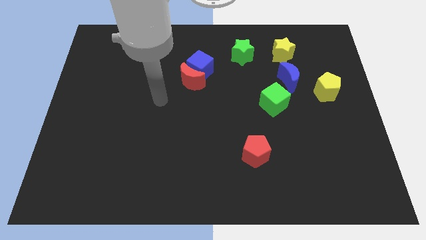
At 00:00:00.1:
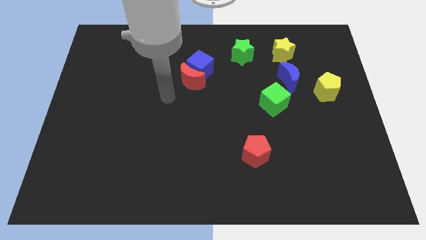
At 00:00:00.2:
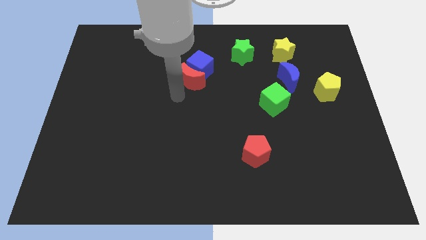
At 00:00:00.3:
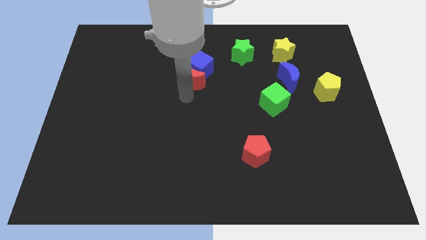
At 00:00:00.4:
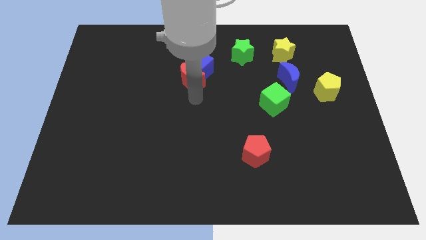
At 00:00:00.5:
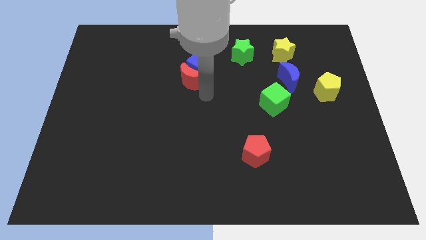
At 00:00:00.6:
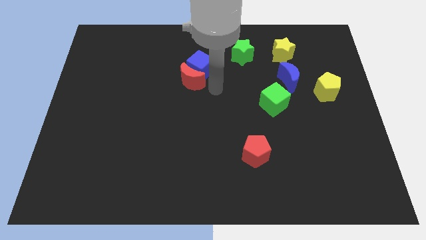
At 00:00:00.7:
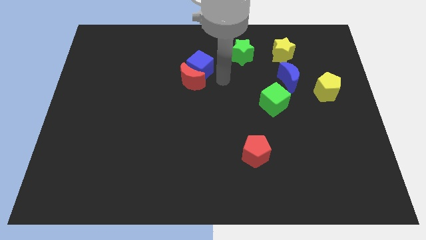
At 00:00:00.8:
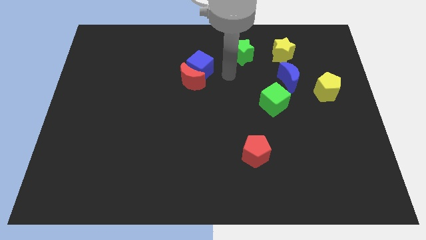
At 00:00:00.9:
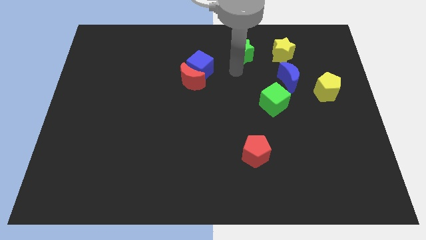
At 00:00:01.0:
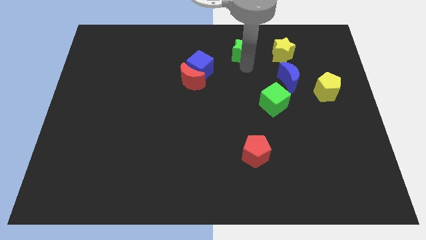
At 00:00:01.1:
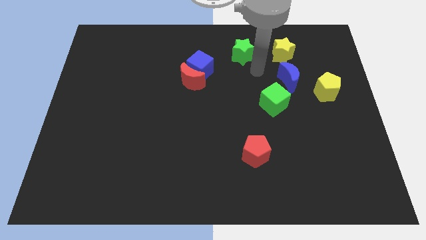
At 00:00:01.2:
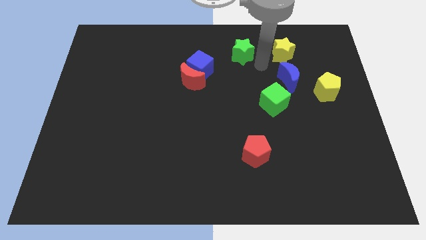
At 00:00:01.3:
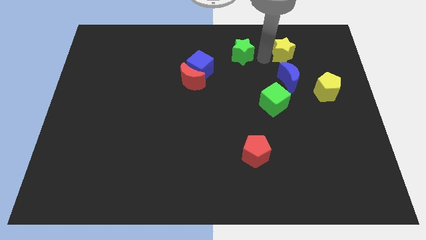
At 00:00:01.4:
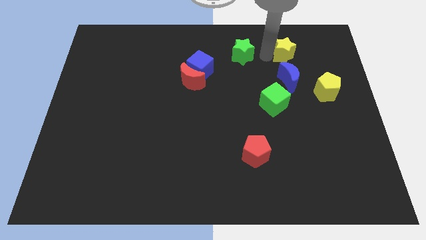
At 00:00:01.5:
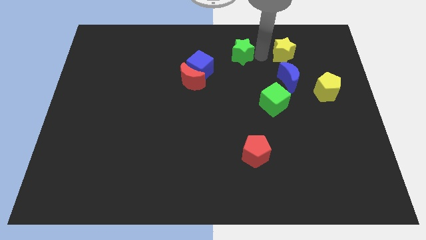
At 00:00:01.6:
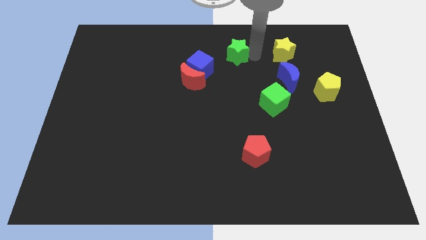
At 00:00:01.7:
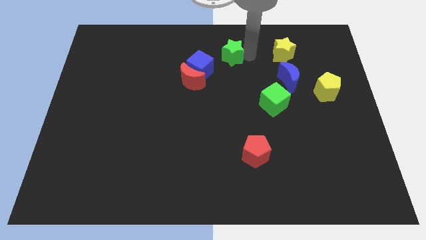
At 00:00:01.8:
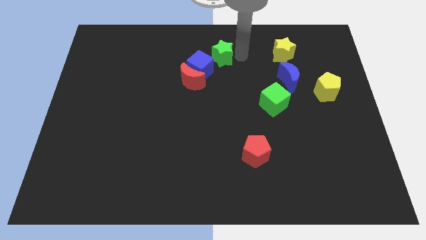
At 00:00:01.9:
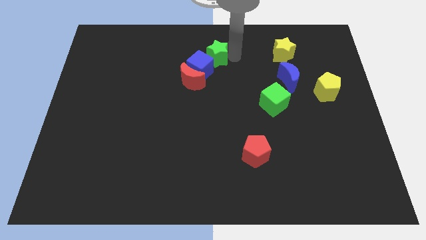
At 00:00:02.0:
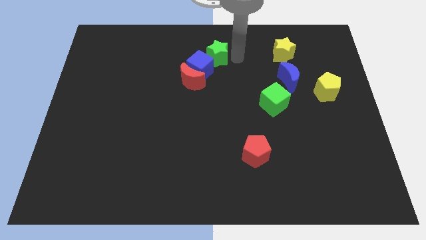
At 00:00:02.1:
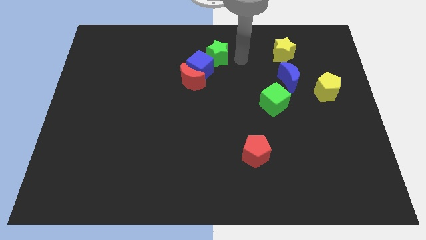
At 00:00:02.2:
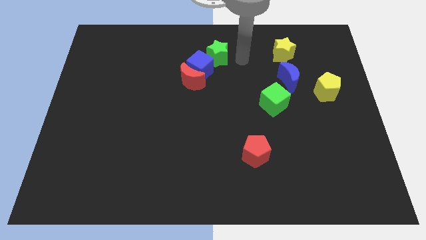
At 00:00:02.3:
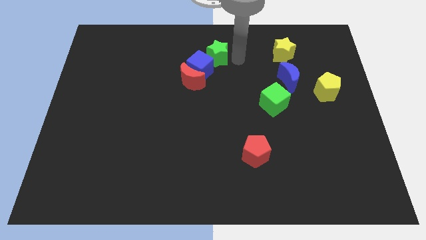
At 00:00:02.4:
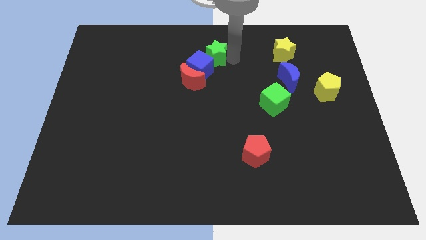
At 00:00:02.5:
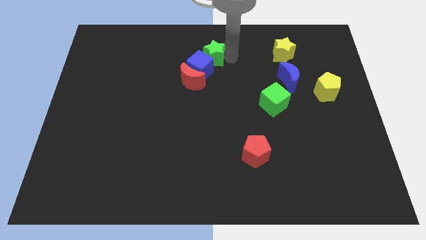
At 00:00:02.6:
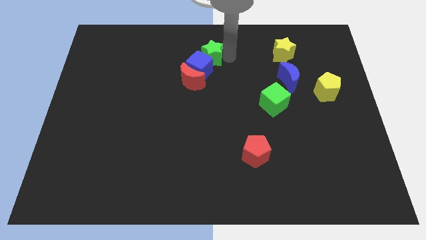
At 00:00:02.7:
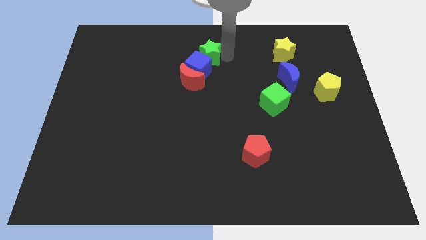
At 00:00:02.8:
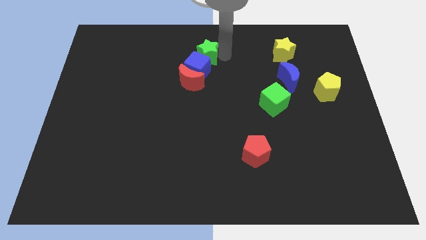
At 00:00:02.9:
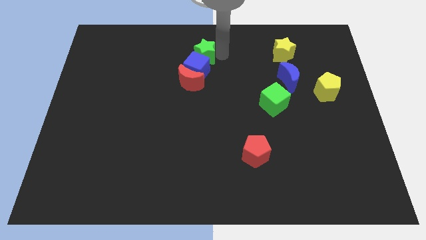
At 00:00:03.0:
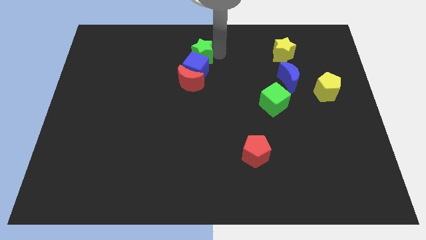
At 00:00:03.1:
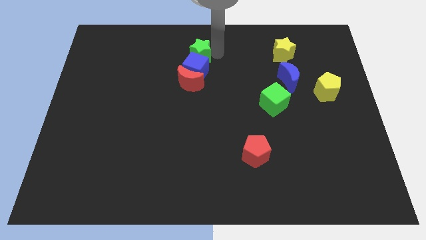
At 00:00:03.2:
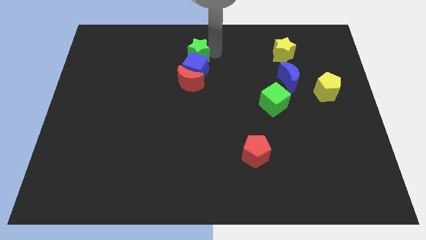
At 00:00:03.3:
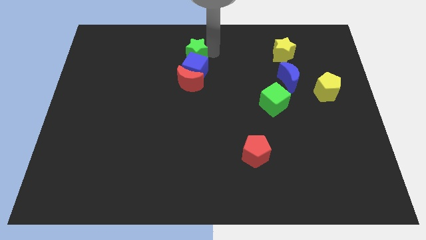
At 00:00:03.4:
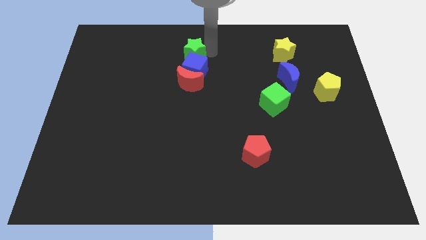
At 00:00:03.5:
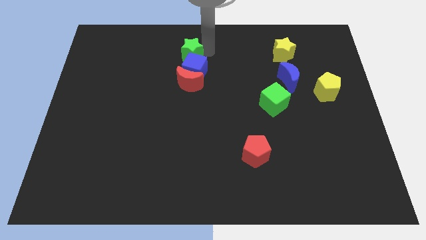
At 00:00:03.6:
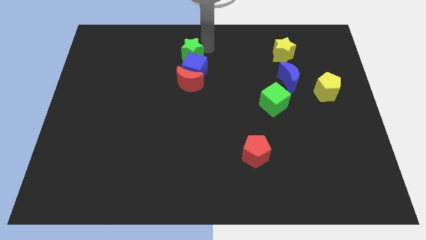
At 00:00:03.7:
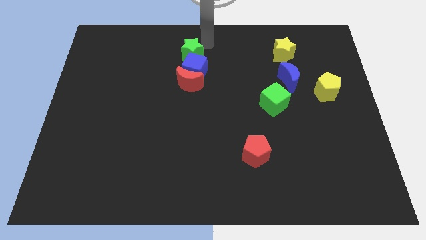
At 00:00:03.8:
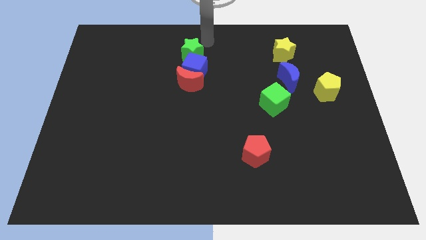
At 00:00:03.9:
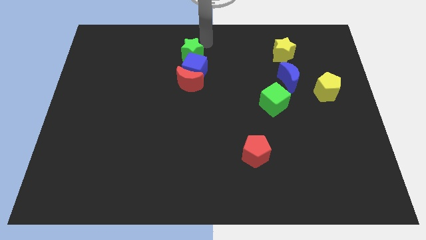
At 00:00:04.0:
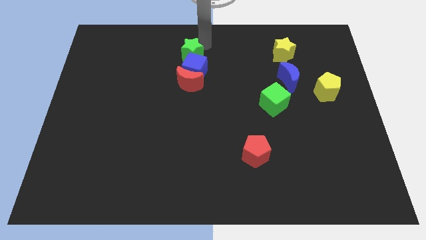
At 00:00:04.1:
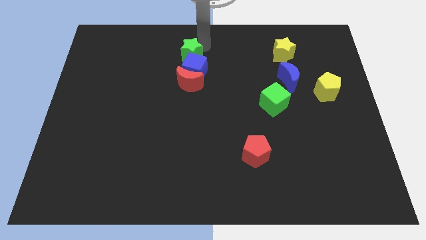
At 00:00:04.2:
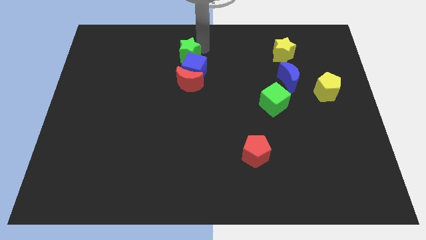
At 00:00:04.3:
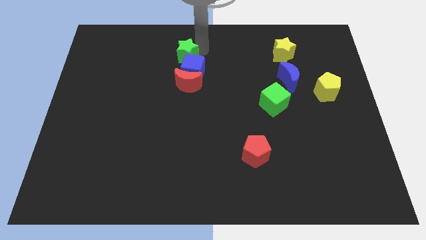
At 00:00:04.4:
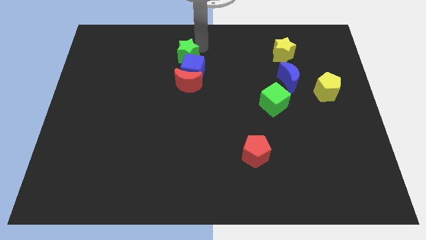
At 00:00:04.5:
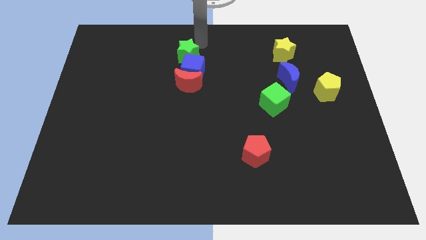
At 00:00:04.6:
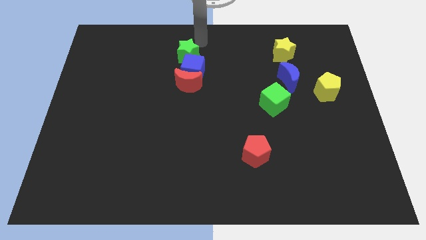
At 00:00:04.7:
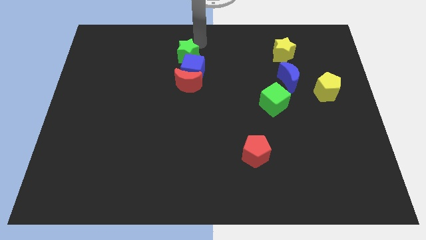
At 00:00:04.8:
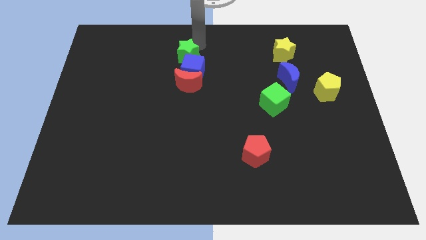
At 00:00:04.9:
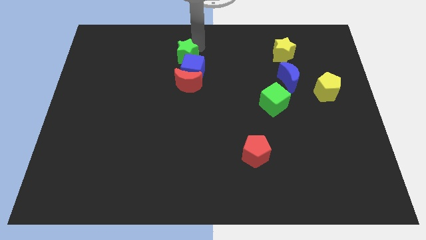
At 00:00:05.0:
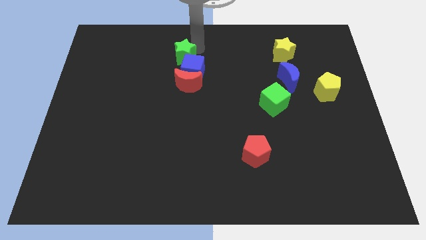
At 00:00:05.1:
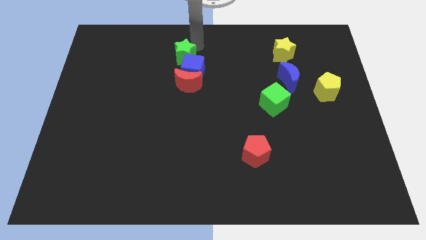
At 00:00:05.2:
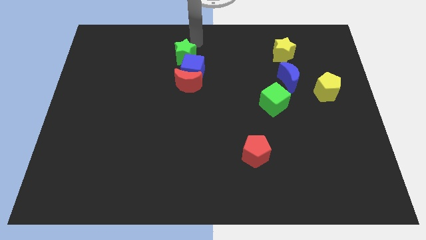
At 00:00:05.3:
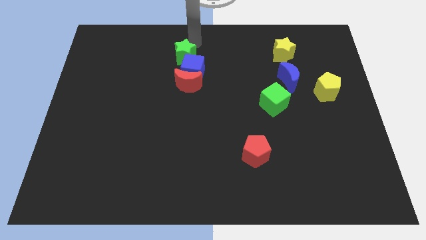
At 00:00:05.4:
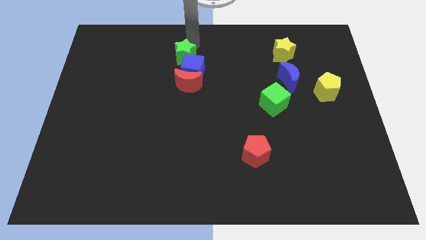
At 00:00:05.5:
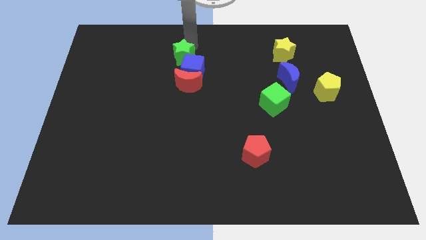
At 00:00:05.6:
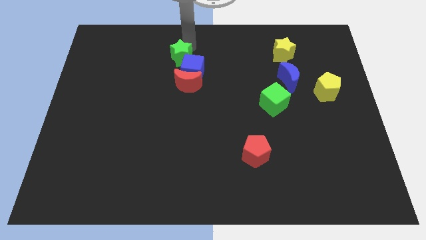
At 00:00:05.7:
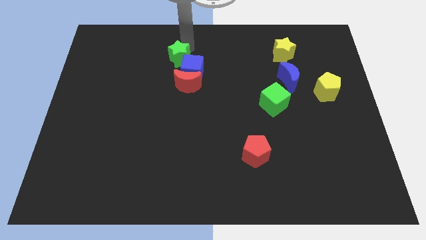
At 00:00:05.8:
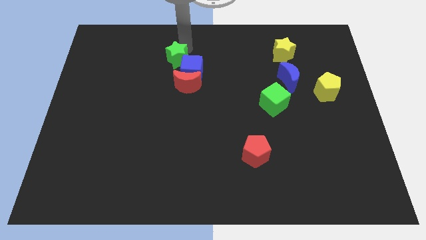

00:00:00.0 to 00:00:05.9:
put the green star to the left side of the blue cube

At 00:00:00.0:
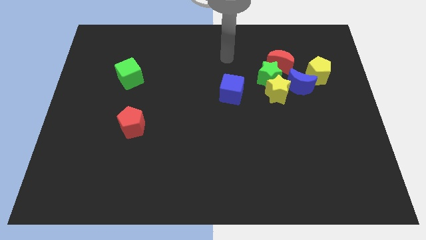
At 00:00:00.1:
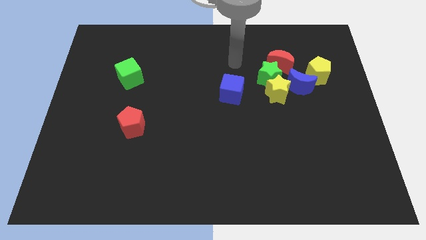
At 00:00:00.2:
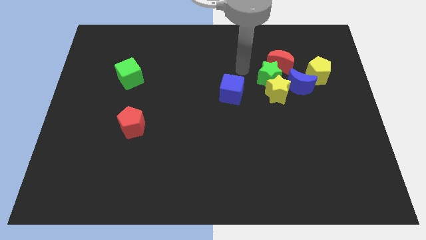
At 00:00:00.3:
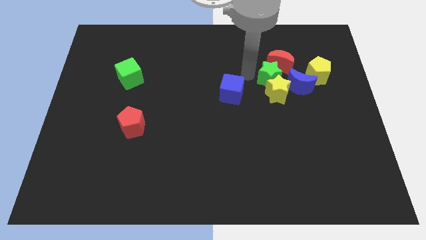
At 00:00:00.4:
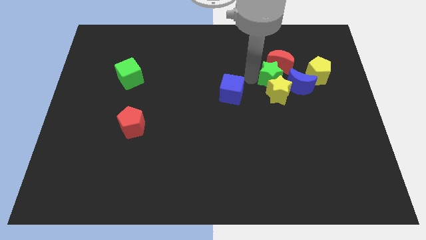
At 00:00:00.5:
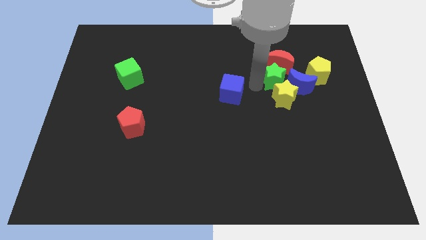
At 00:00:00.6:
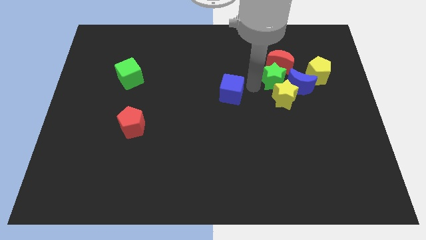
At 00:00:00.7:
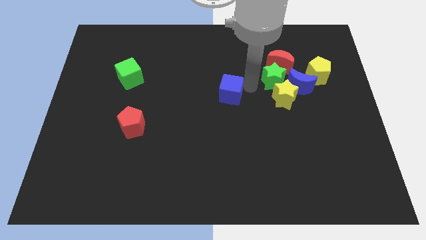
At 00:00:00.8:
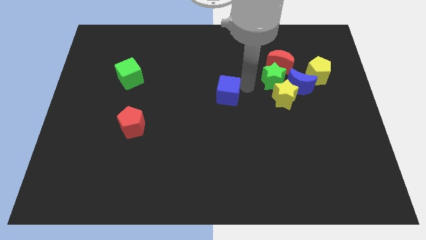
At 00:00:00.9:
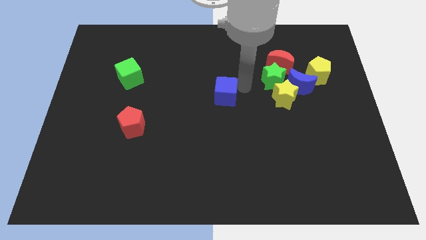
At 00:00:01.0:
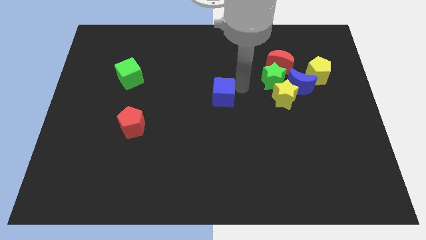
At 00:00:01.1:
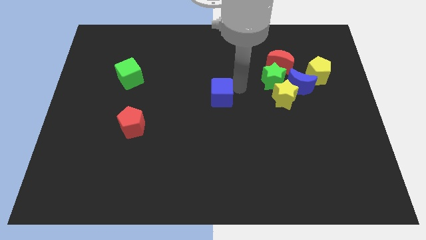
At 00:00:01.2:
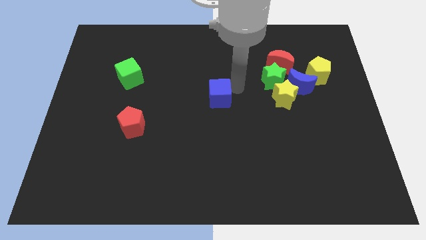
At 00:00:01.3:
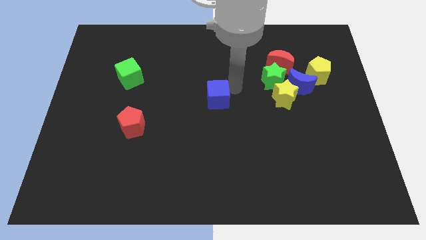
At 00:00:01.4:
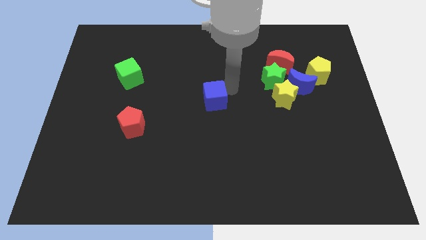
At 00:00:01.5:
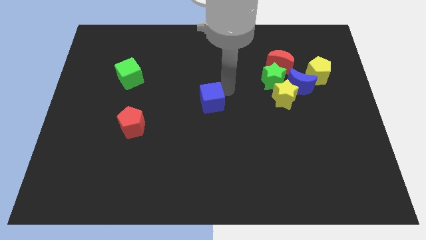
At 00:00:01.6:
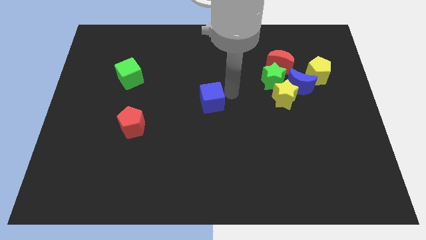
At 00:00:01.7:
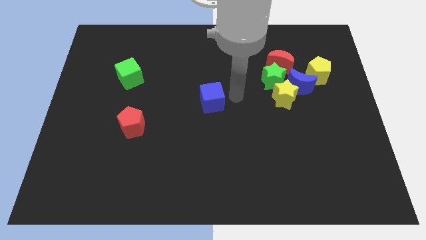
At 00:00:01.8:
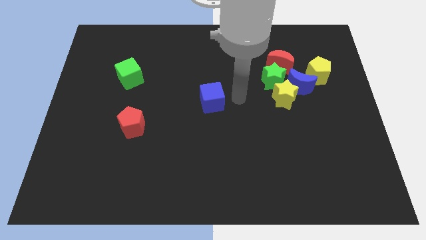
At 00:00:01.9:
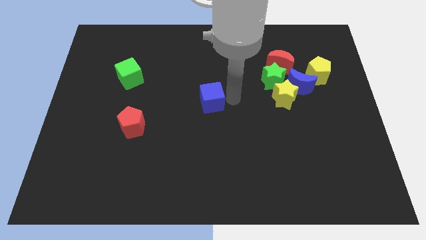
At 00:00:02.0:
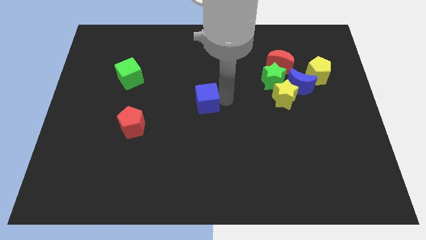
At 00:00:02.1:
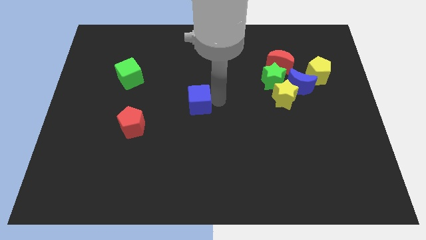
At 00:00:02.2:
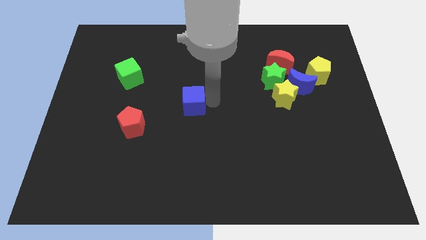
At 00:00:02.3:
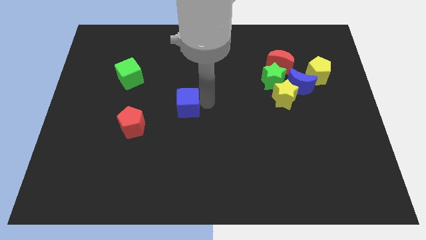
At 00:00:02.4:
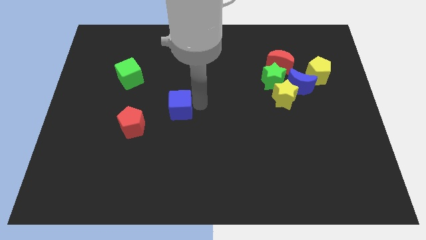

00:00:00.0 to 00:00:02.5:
put the blue cube to the top right of the red pentagon
